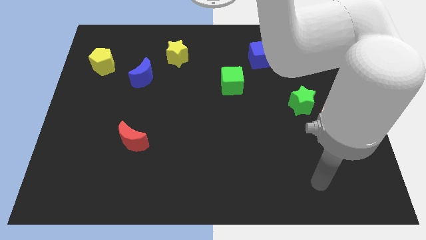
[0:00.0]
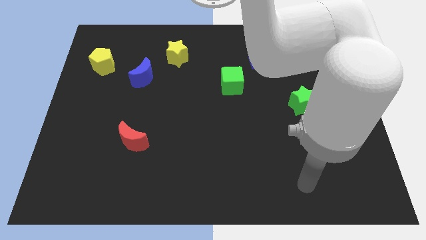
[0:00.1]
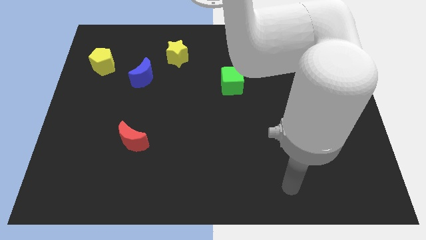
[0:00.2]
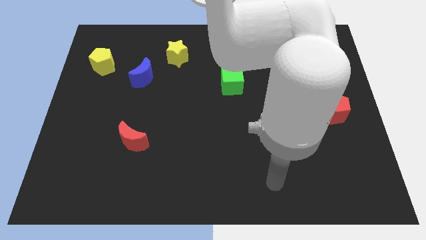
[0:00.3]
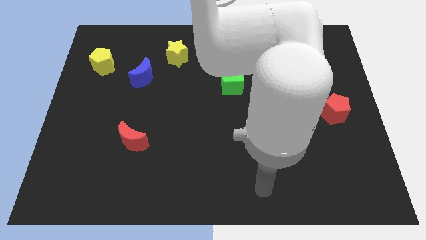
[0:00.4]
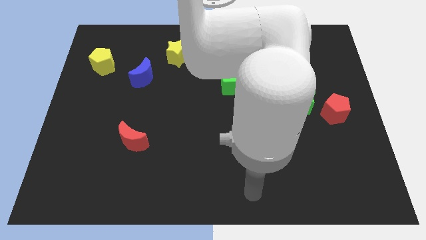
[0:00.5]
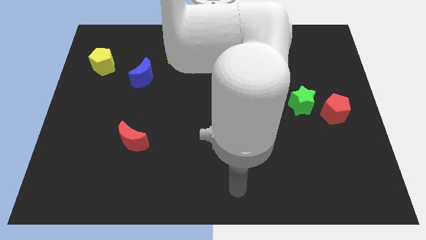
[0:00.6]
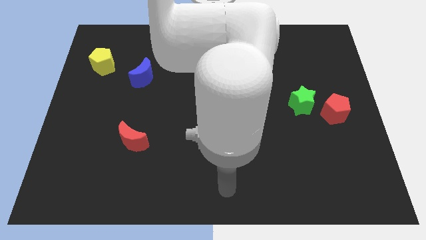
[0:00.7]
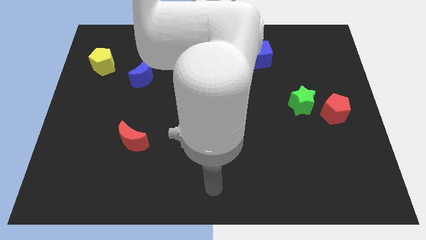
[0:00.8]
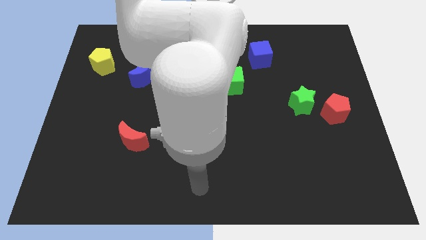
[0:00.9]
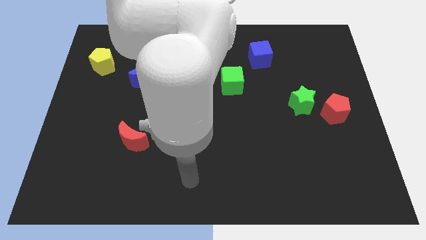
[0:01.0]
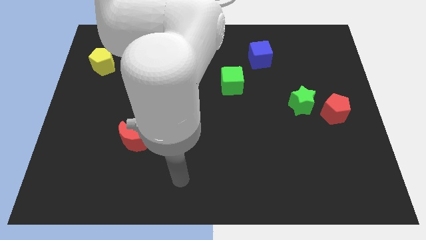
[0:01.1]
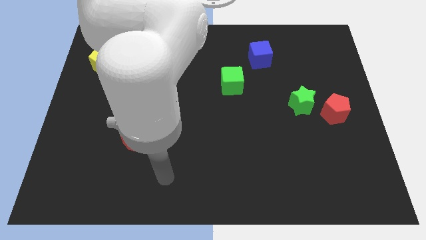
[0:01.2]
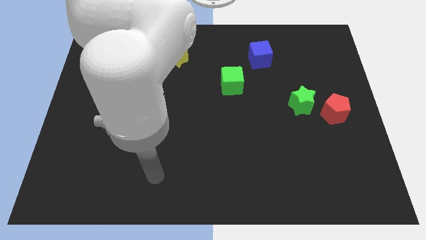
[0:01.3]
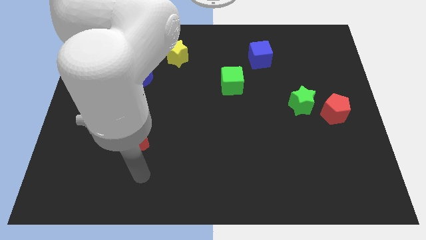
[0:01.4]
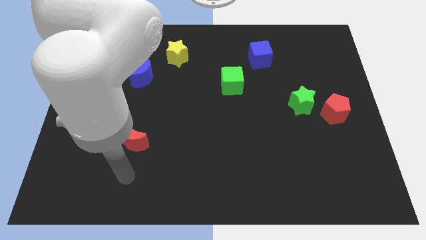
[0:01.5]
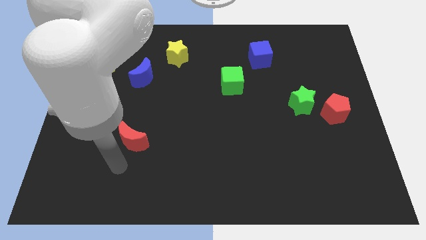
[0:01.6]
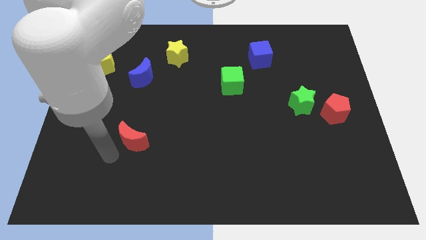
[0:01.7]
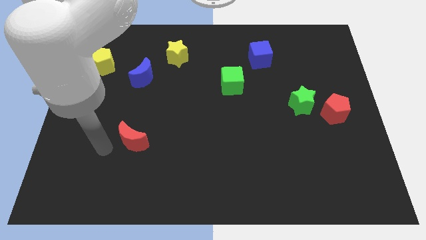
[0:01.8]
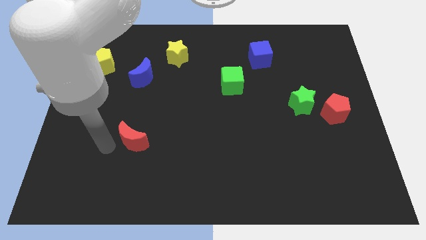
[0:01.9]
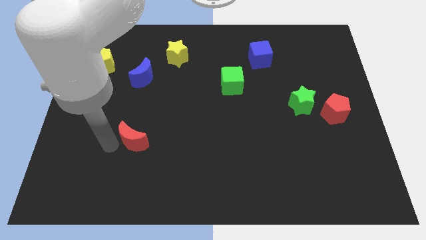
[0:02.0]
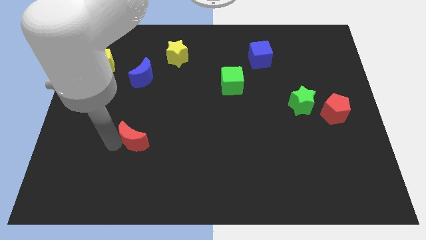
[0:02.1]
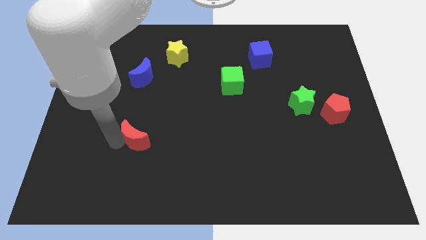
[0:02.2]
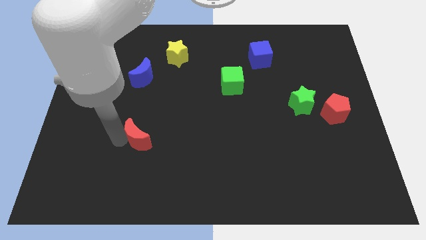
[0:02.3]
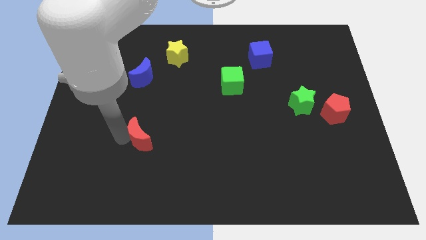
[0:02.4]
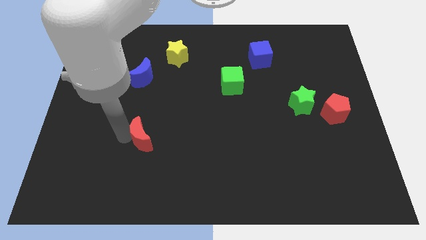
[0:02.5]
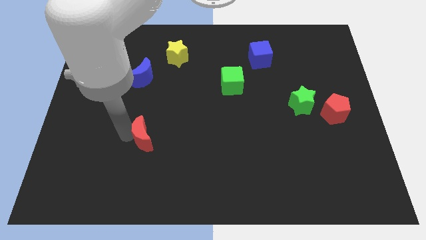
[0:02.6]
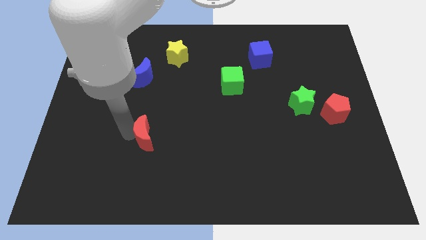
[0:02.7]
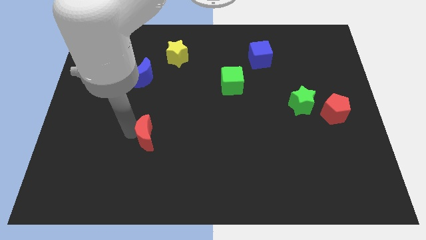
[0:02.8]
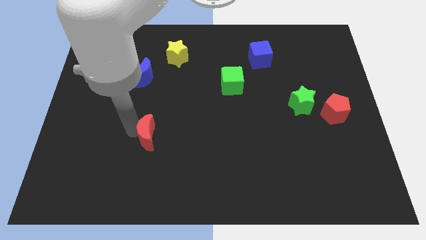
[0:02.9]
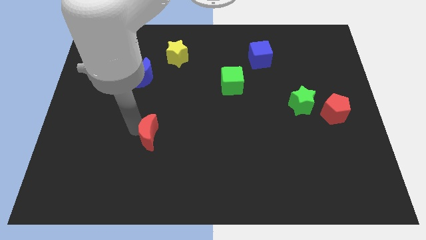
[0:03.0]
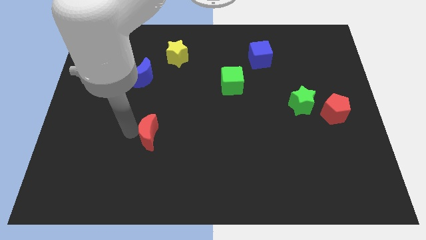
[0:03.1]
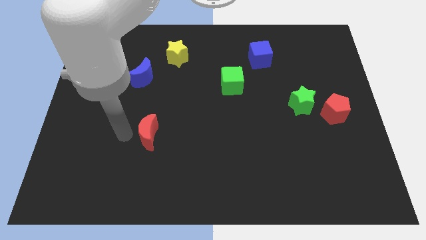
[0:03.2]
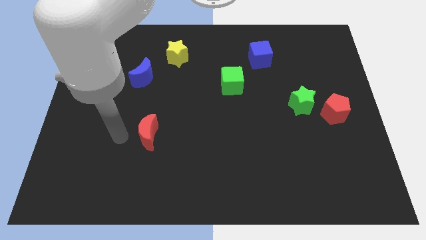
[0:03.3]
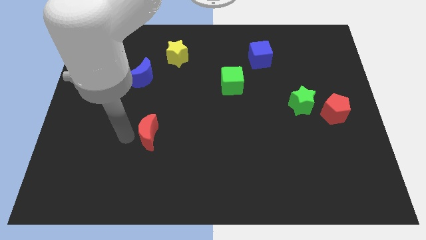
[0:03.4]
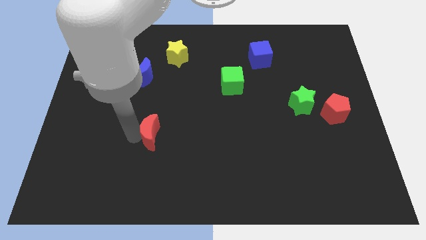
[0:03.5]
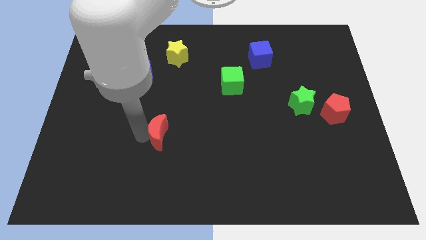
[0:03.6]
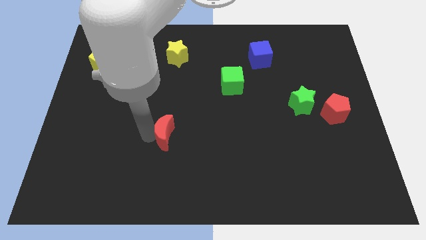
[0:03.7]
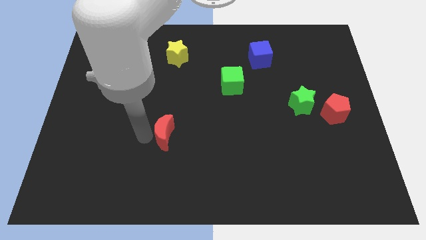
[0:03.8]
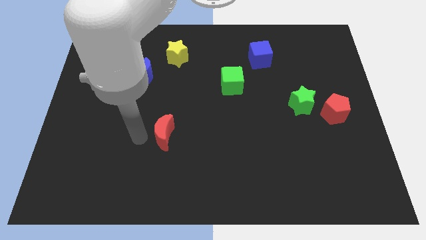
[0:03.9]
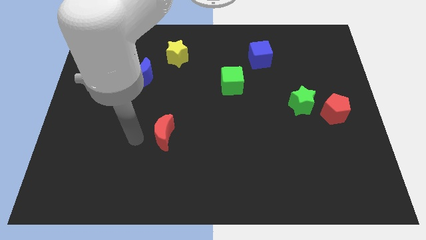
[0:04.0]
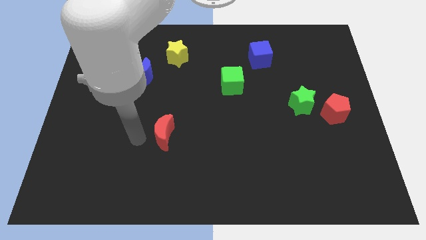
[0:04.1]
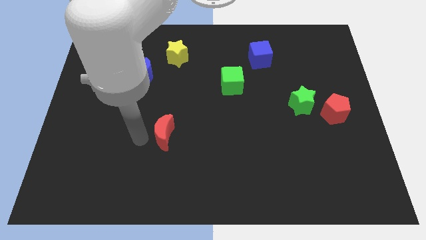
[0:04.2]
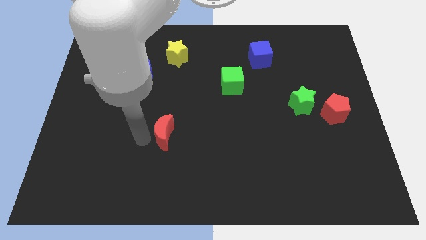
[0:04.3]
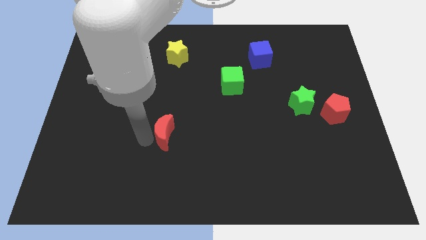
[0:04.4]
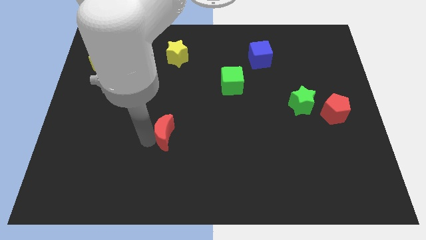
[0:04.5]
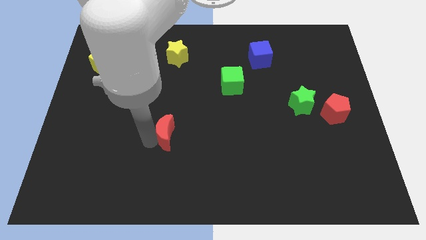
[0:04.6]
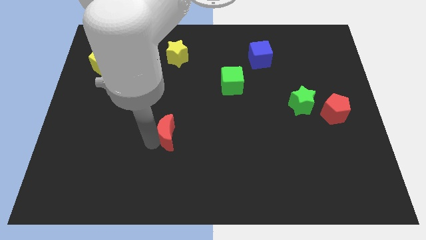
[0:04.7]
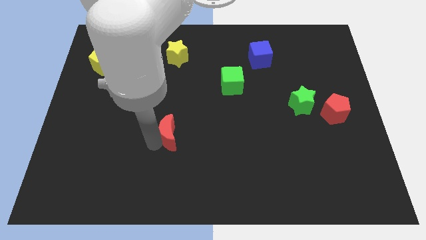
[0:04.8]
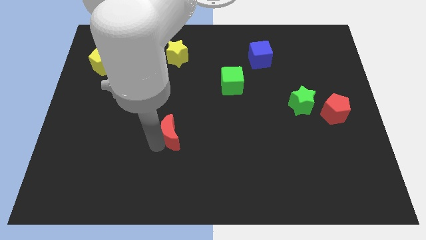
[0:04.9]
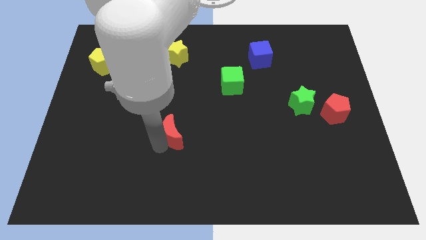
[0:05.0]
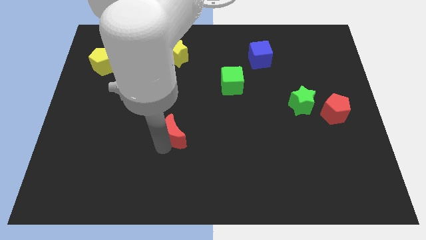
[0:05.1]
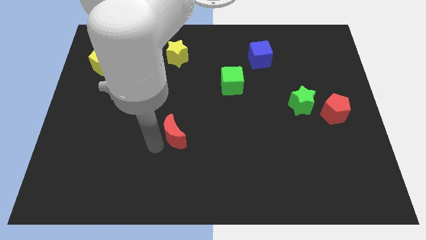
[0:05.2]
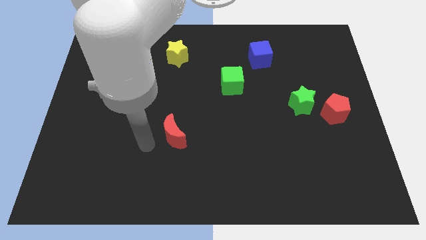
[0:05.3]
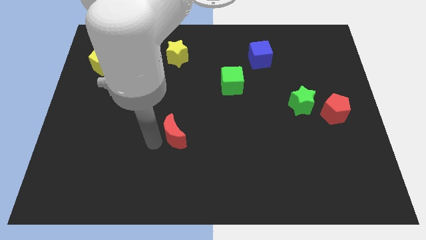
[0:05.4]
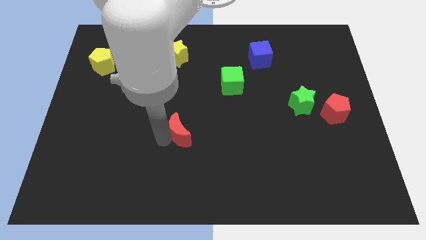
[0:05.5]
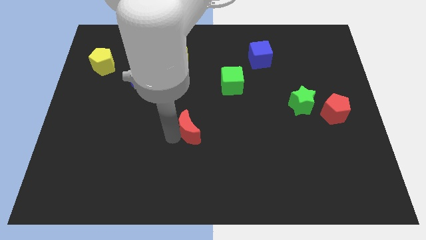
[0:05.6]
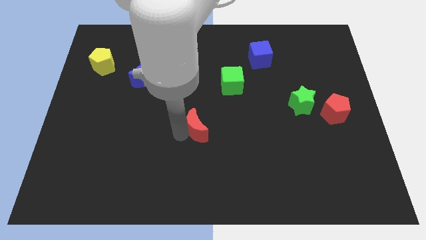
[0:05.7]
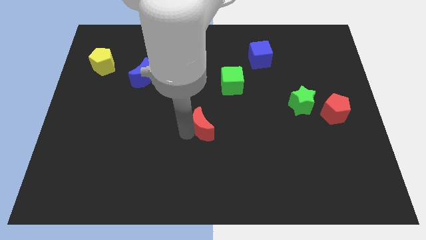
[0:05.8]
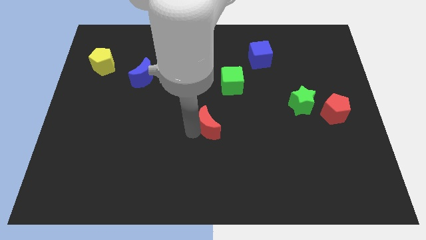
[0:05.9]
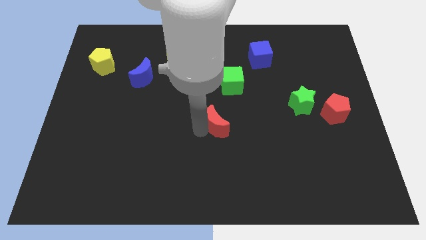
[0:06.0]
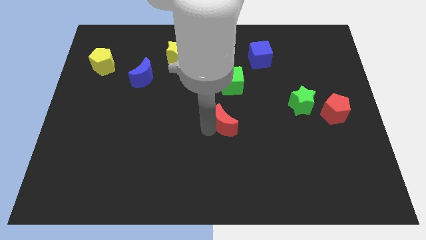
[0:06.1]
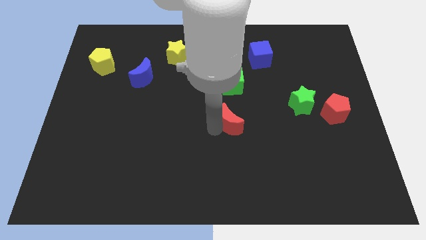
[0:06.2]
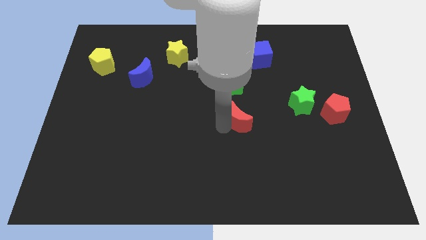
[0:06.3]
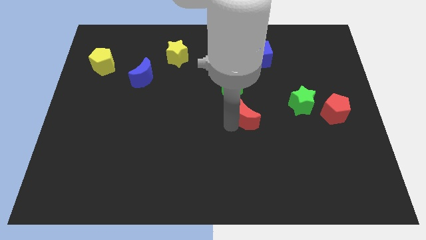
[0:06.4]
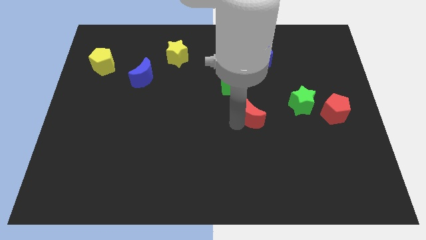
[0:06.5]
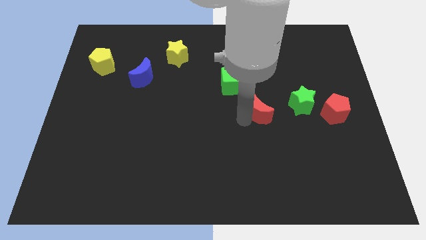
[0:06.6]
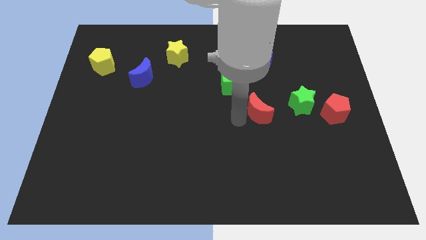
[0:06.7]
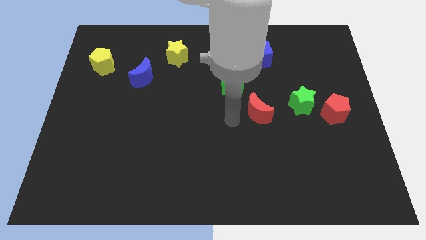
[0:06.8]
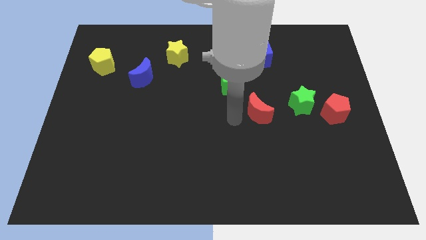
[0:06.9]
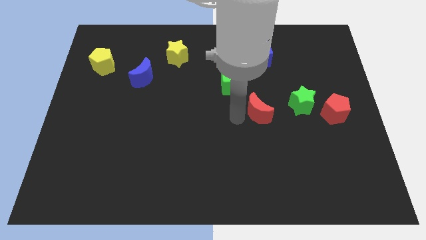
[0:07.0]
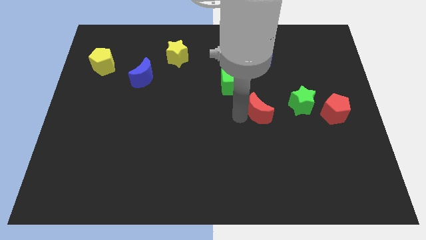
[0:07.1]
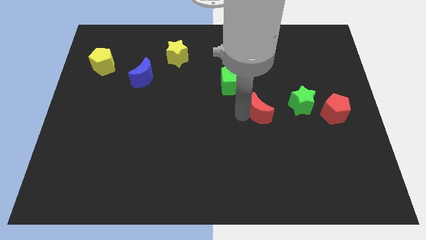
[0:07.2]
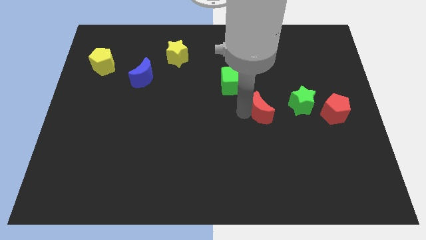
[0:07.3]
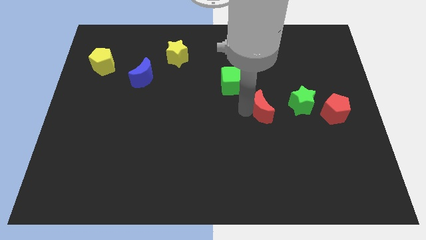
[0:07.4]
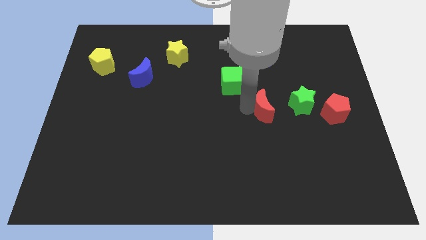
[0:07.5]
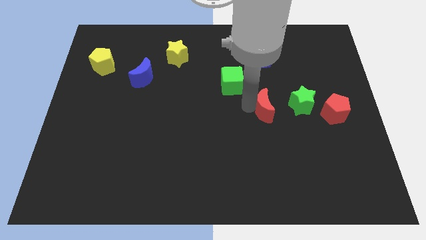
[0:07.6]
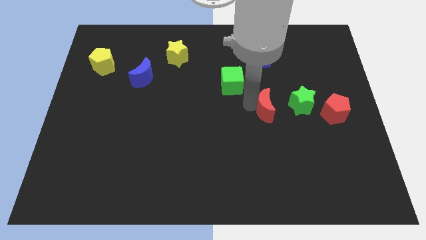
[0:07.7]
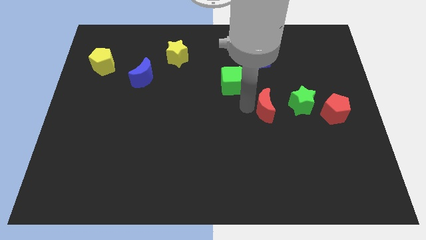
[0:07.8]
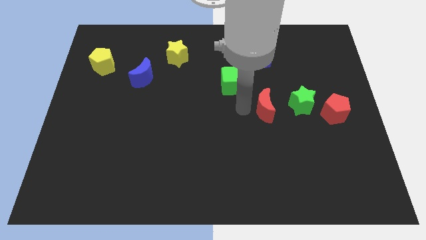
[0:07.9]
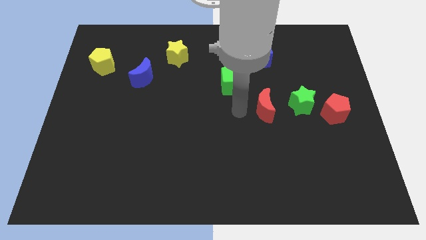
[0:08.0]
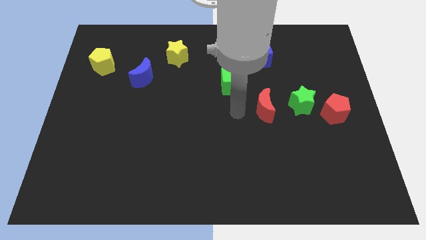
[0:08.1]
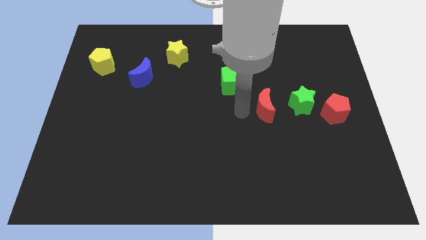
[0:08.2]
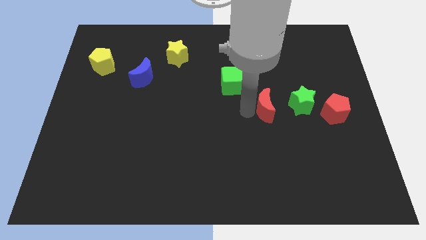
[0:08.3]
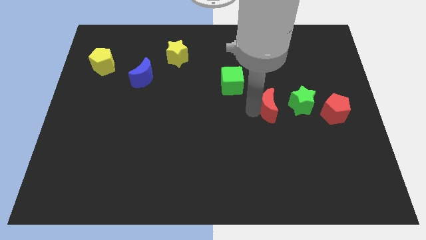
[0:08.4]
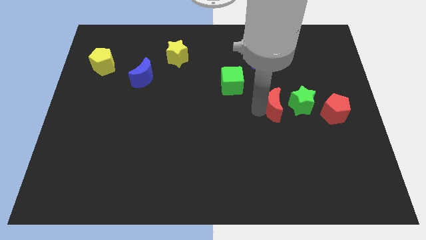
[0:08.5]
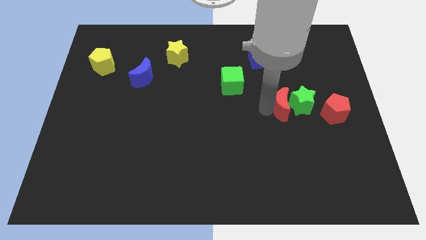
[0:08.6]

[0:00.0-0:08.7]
push the red moon towards the green star
